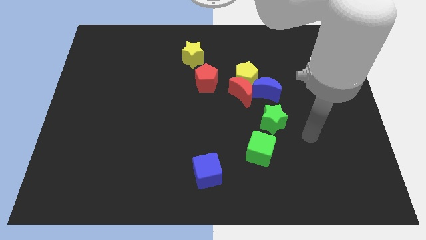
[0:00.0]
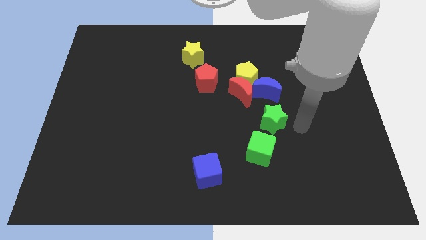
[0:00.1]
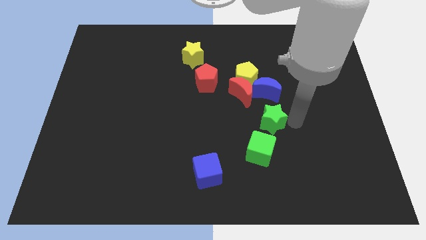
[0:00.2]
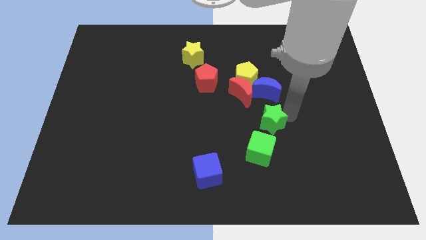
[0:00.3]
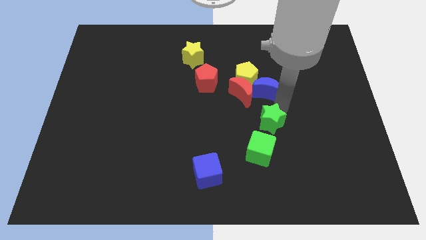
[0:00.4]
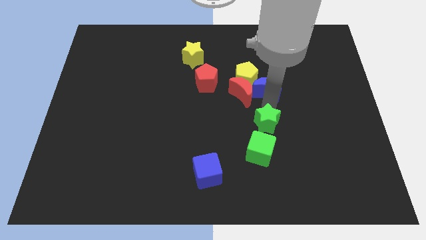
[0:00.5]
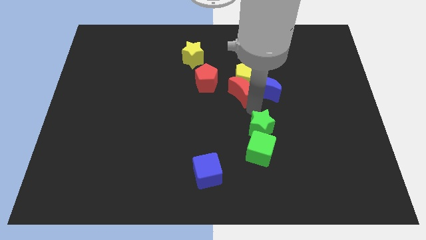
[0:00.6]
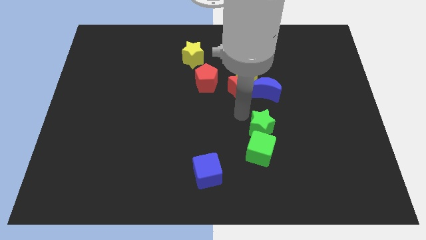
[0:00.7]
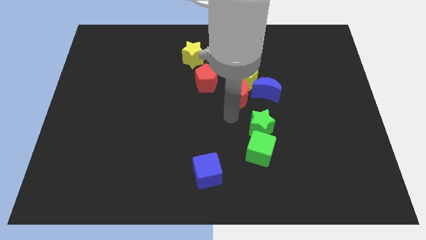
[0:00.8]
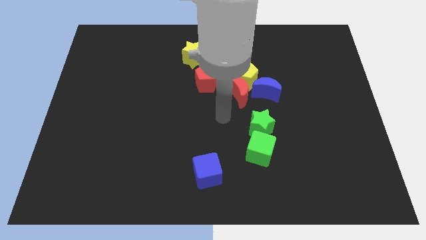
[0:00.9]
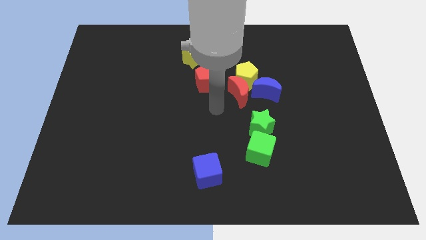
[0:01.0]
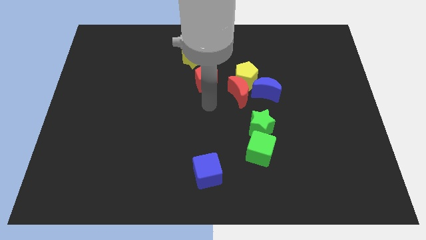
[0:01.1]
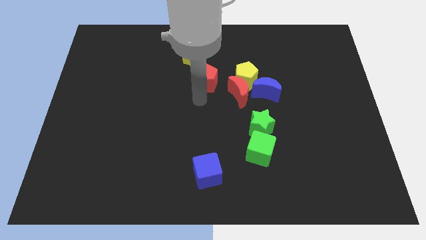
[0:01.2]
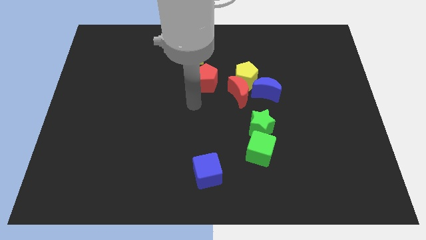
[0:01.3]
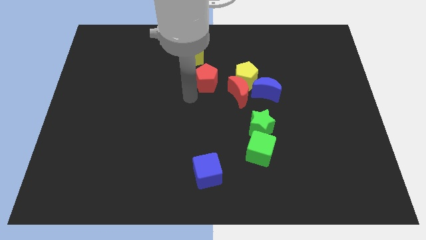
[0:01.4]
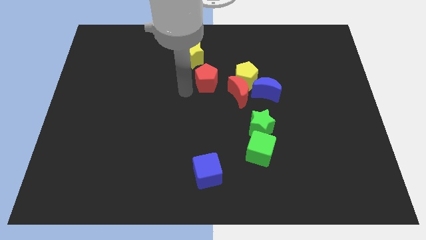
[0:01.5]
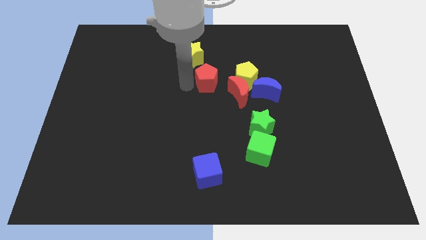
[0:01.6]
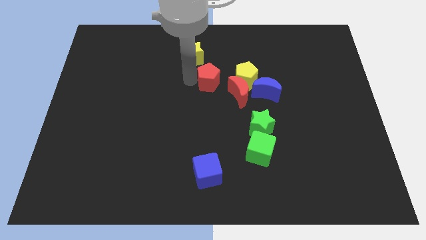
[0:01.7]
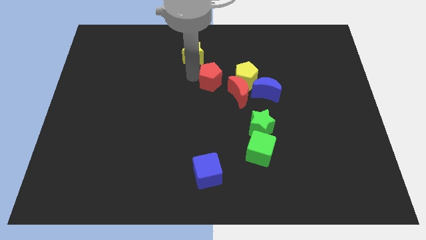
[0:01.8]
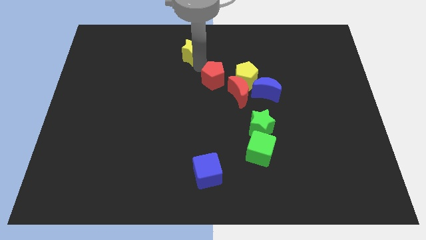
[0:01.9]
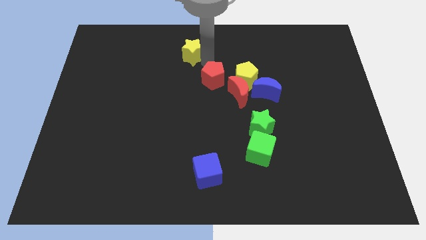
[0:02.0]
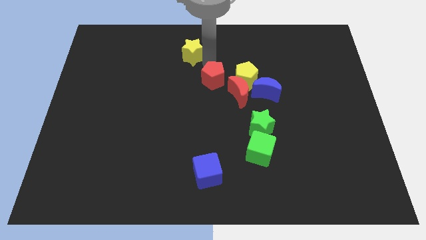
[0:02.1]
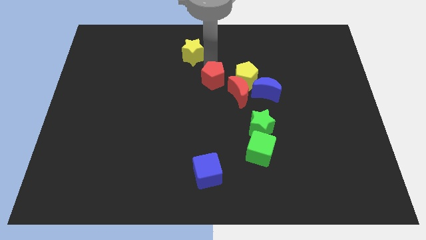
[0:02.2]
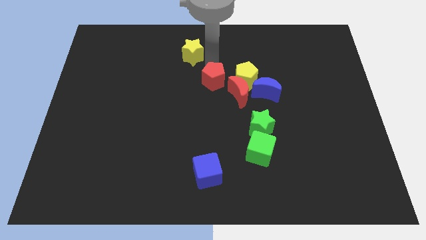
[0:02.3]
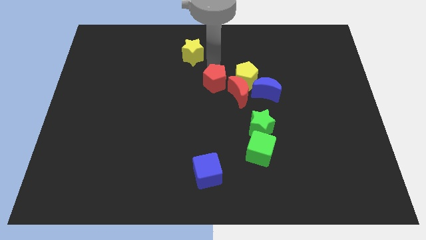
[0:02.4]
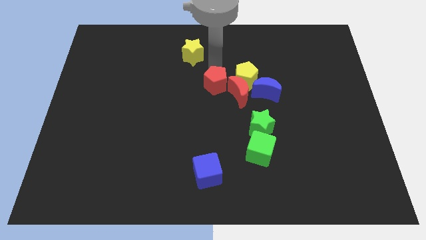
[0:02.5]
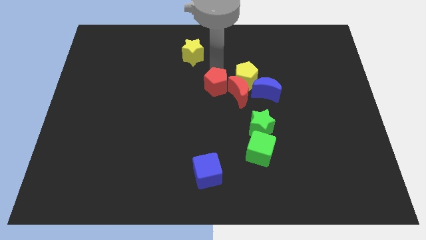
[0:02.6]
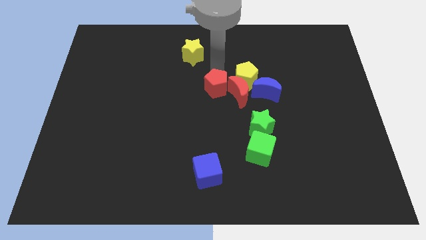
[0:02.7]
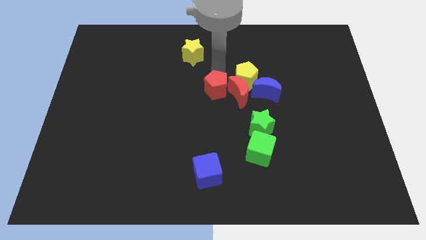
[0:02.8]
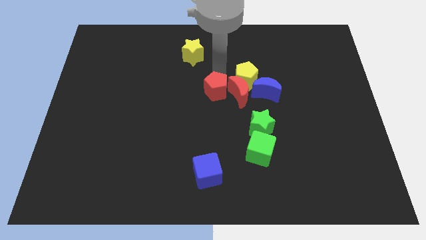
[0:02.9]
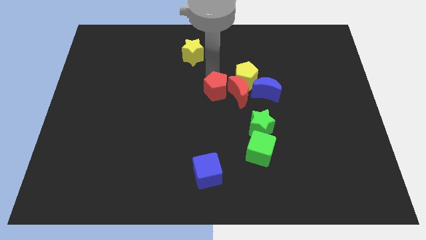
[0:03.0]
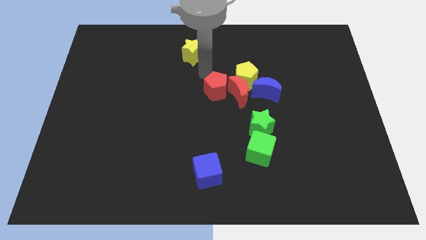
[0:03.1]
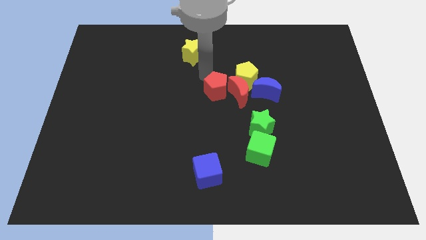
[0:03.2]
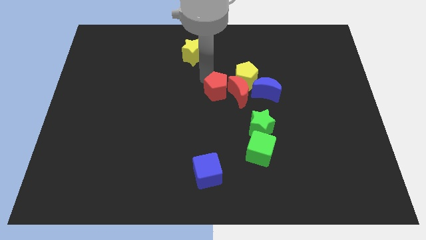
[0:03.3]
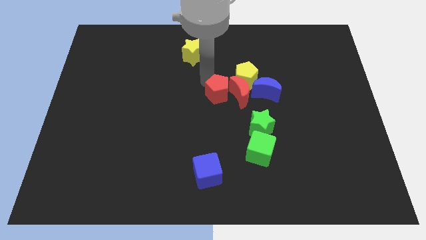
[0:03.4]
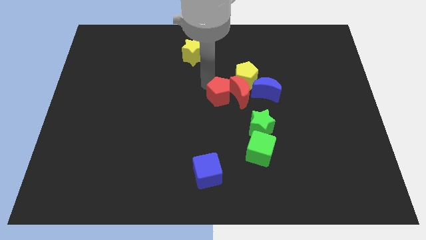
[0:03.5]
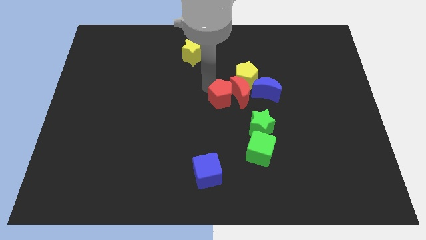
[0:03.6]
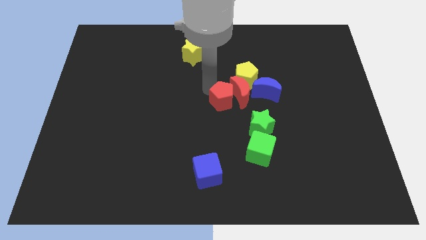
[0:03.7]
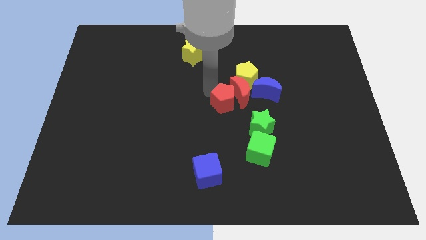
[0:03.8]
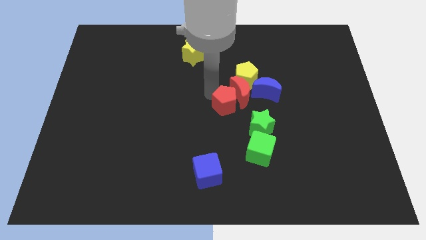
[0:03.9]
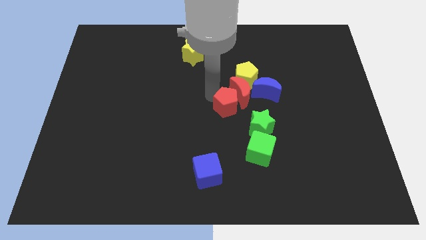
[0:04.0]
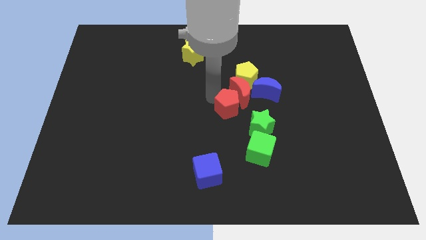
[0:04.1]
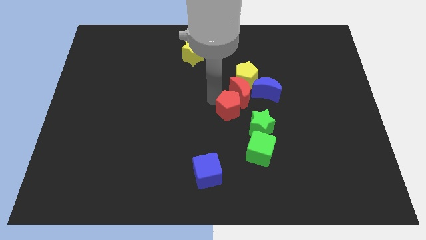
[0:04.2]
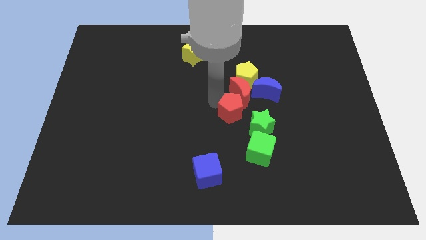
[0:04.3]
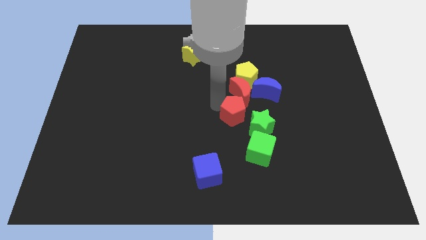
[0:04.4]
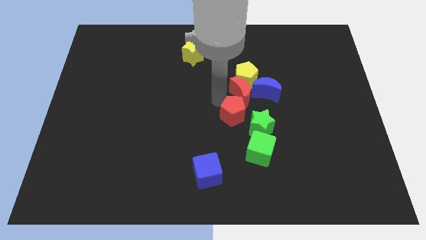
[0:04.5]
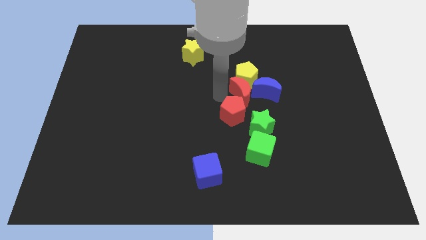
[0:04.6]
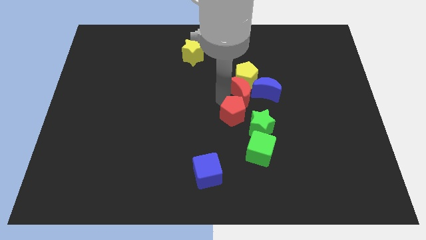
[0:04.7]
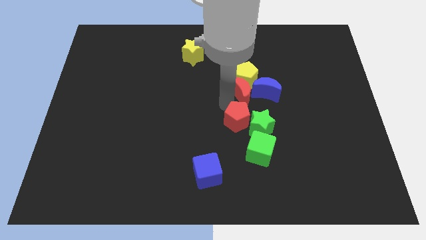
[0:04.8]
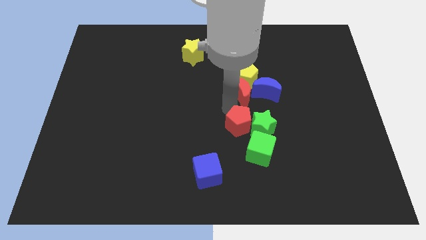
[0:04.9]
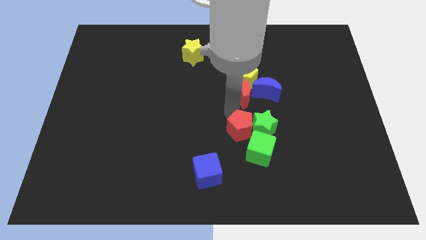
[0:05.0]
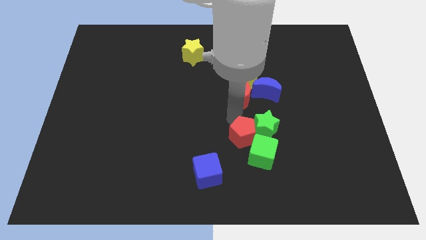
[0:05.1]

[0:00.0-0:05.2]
move the red pentagon towards the green cube

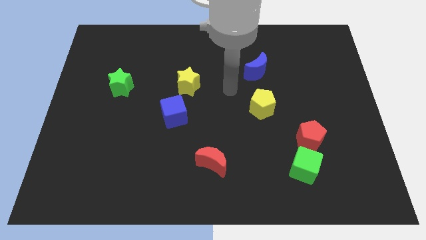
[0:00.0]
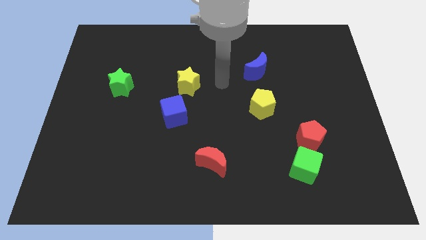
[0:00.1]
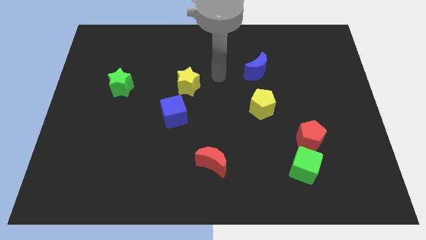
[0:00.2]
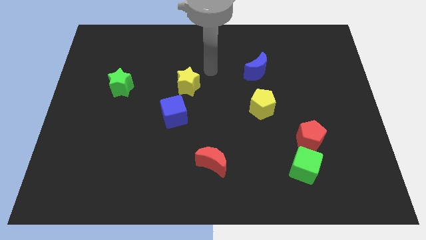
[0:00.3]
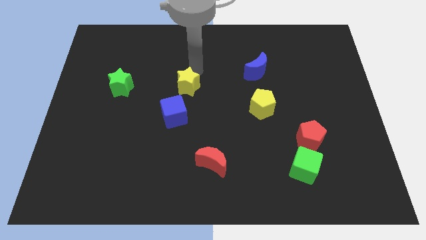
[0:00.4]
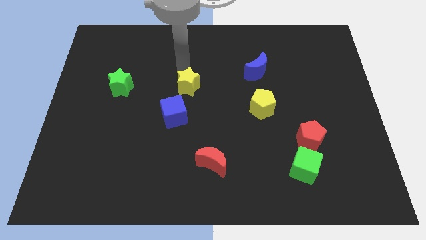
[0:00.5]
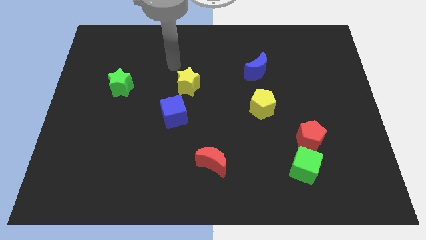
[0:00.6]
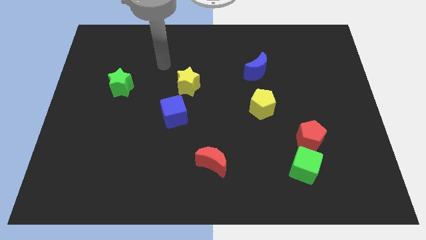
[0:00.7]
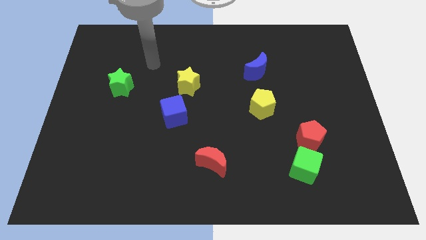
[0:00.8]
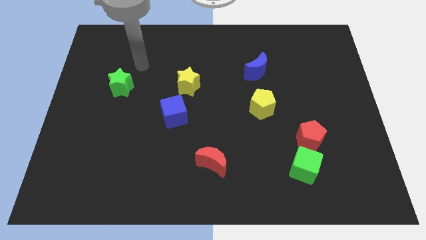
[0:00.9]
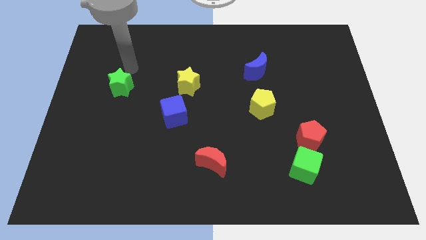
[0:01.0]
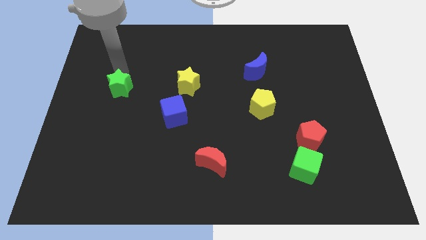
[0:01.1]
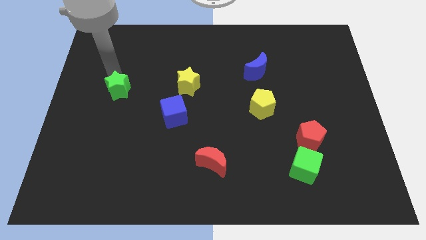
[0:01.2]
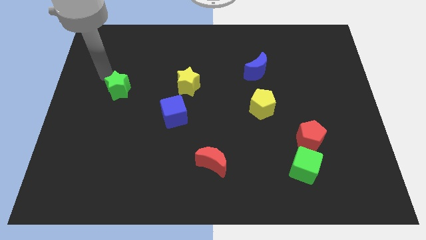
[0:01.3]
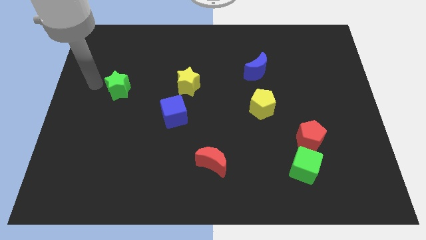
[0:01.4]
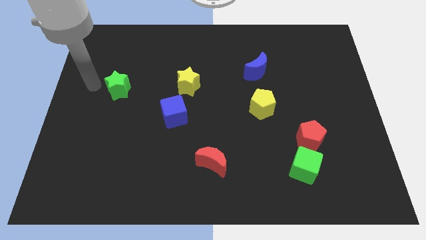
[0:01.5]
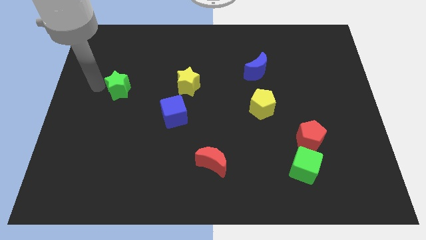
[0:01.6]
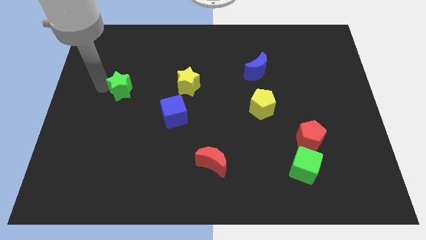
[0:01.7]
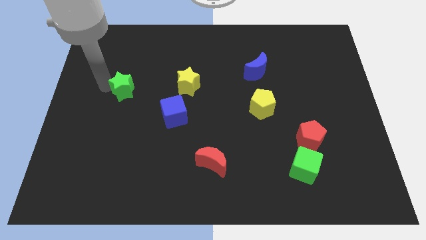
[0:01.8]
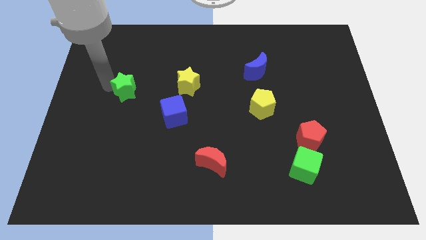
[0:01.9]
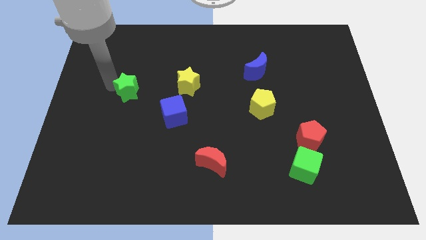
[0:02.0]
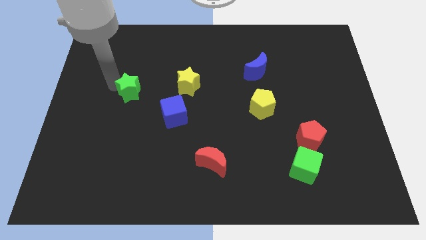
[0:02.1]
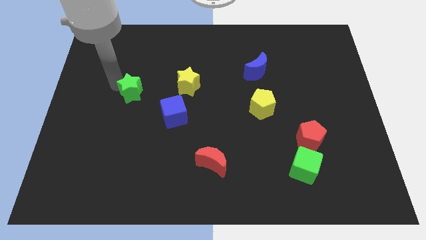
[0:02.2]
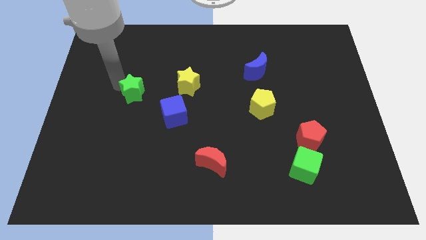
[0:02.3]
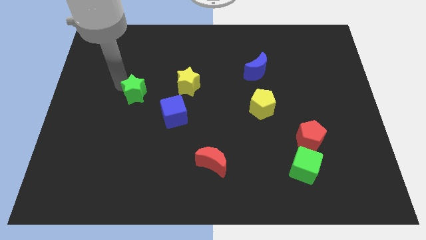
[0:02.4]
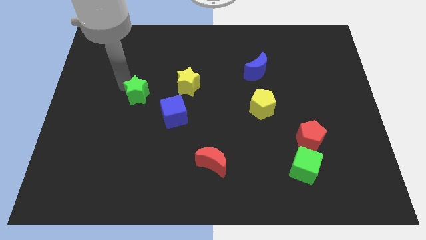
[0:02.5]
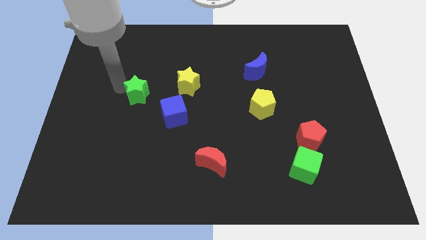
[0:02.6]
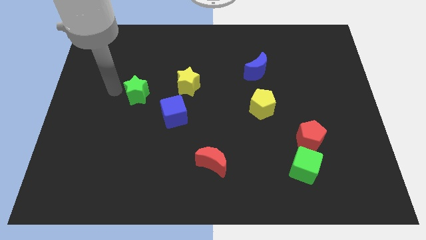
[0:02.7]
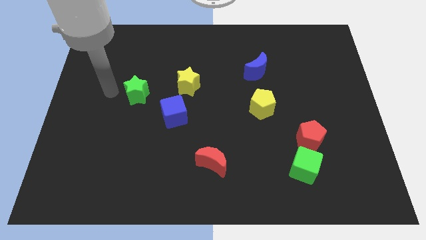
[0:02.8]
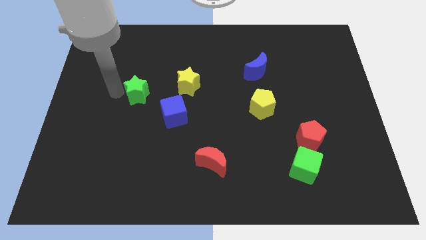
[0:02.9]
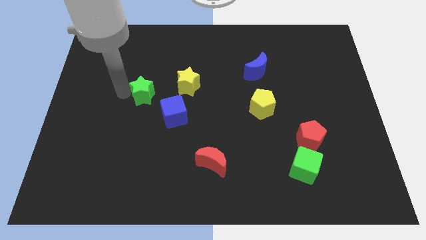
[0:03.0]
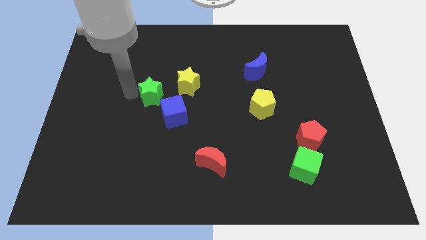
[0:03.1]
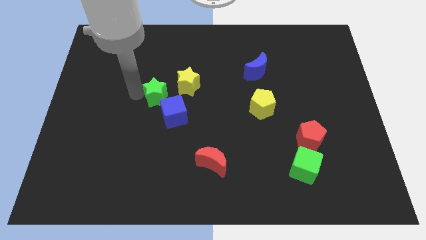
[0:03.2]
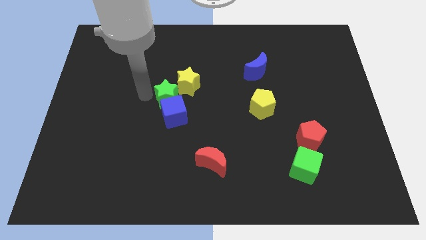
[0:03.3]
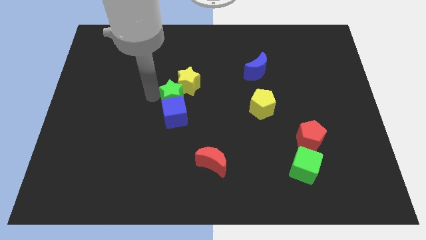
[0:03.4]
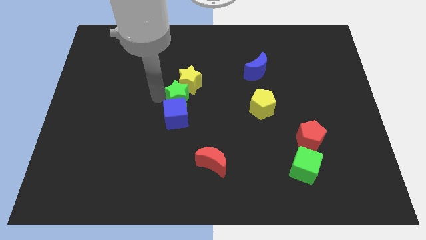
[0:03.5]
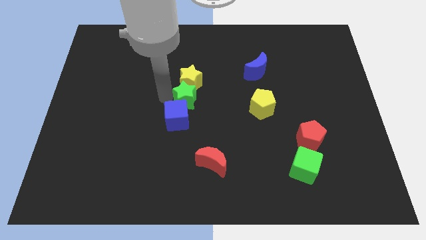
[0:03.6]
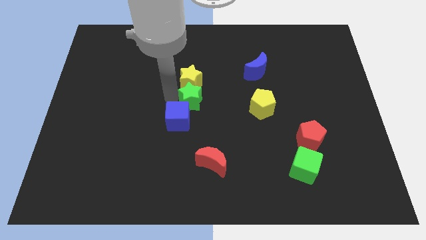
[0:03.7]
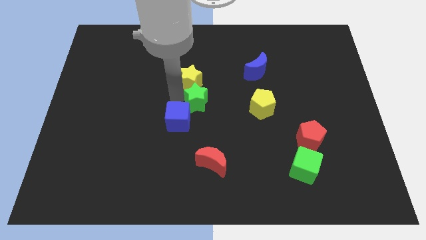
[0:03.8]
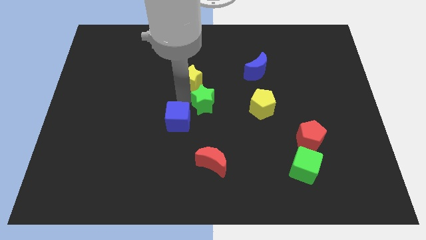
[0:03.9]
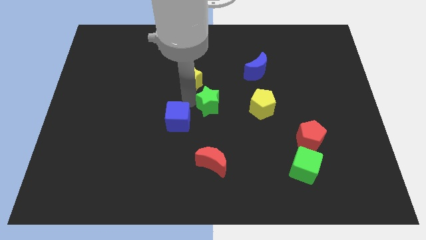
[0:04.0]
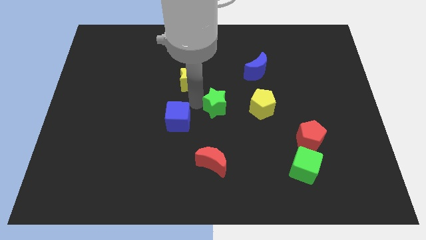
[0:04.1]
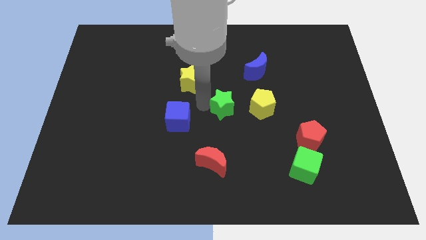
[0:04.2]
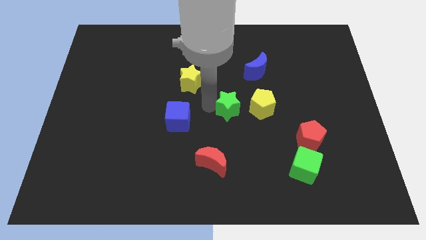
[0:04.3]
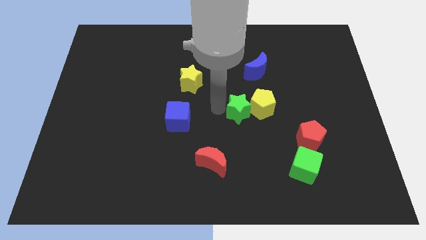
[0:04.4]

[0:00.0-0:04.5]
move the green star close to the yellow pentagon
